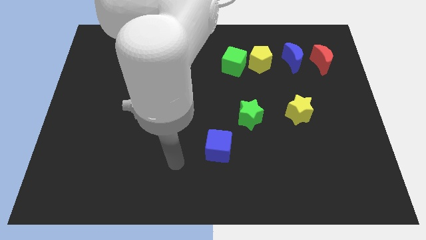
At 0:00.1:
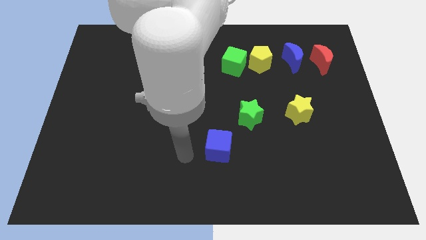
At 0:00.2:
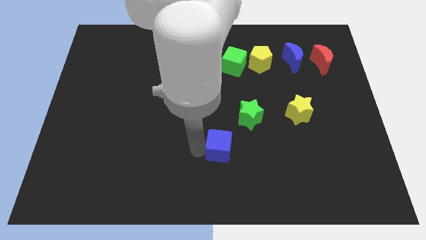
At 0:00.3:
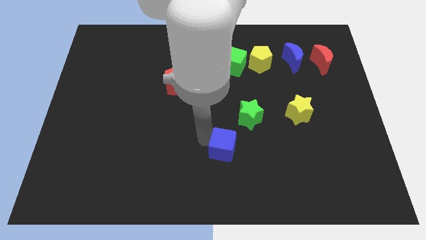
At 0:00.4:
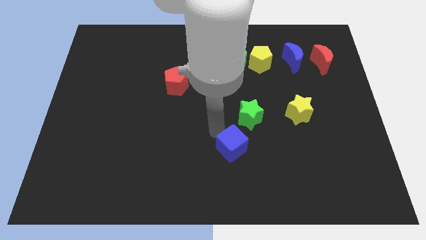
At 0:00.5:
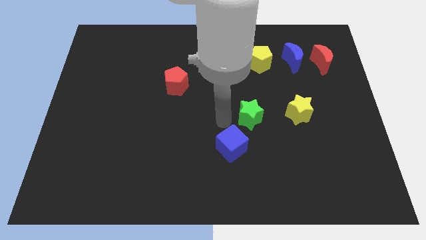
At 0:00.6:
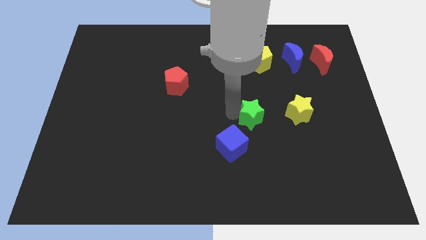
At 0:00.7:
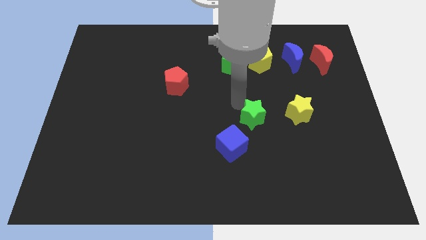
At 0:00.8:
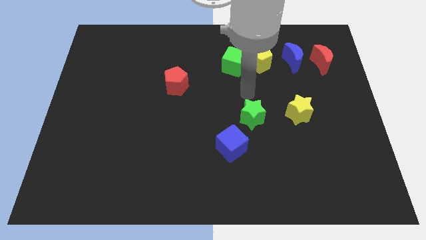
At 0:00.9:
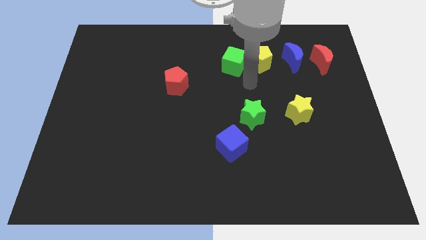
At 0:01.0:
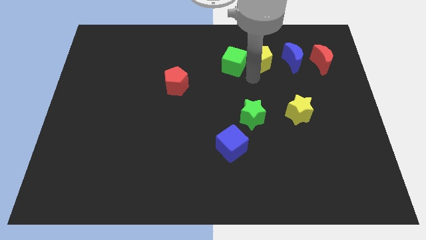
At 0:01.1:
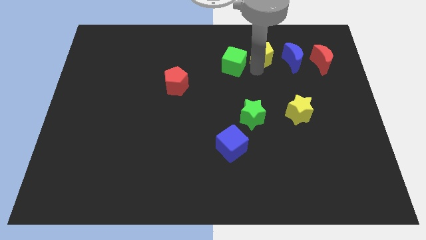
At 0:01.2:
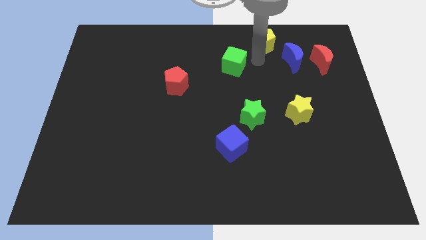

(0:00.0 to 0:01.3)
separate the green cube from the yellow pentagon

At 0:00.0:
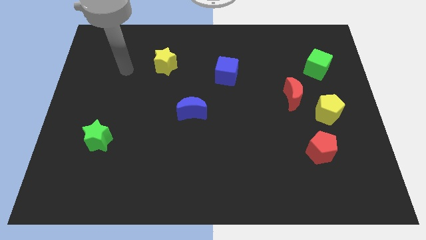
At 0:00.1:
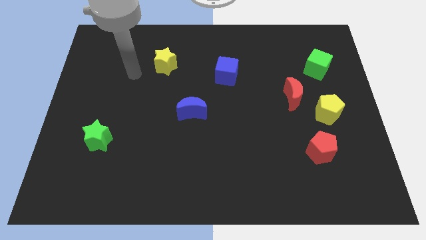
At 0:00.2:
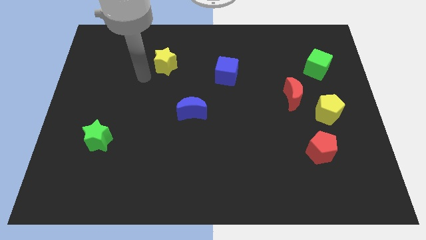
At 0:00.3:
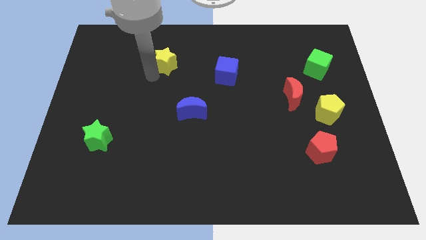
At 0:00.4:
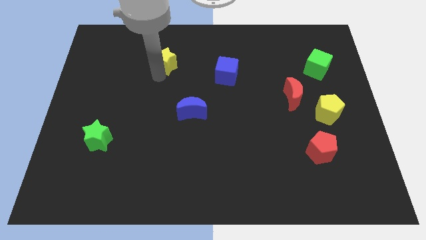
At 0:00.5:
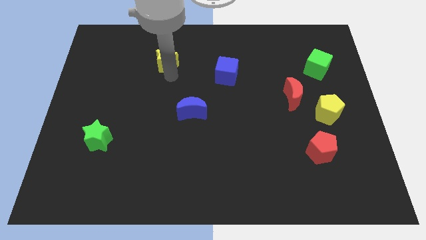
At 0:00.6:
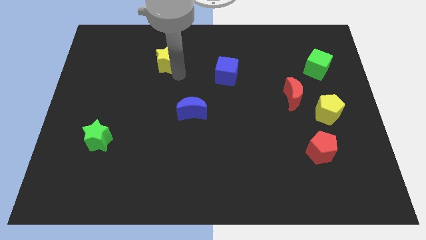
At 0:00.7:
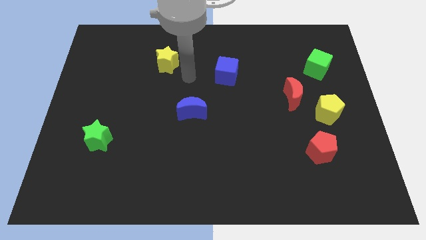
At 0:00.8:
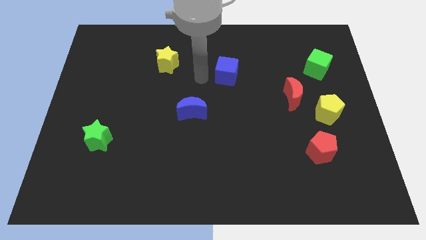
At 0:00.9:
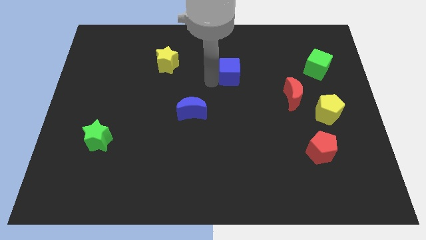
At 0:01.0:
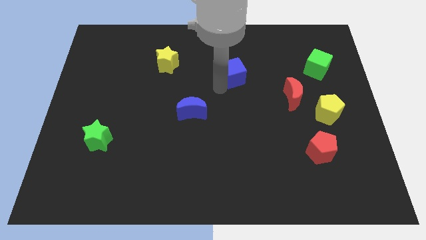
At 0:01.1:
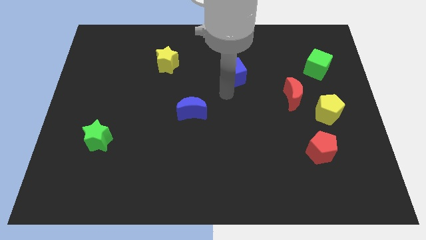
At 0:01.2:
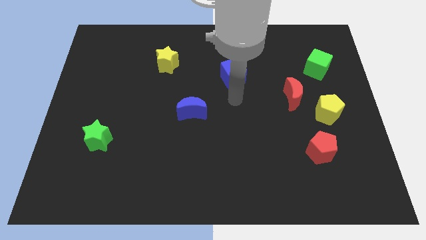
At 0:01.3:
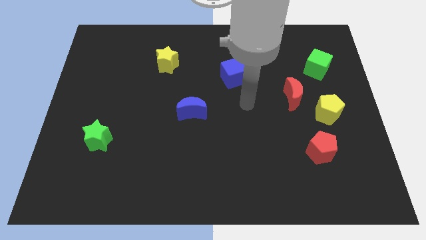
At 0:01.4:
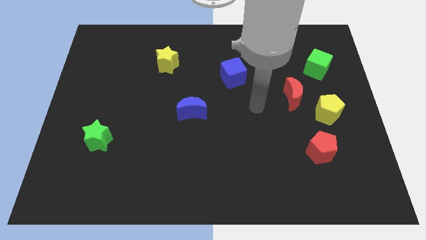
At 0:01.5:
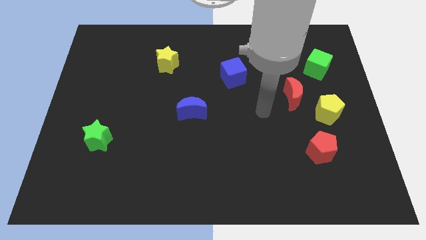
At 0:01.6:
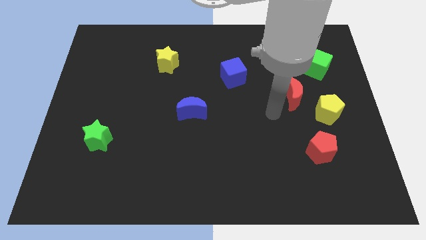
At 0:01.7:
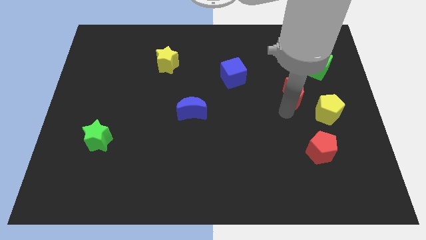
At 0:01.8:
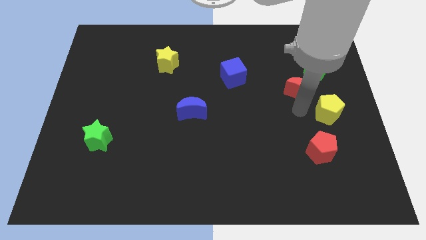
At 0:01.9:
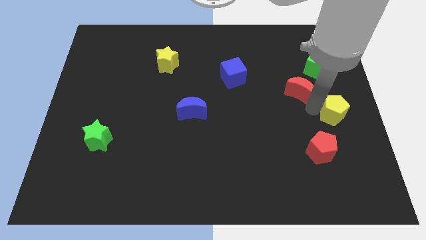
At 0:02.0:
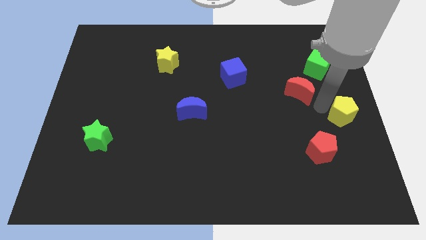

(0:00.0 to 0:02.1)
move the red moon away from the yellow pentagon

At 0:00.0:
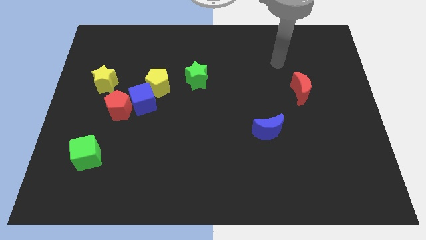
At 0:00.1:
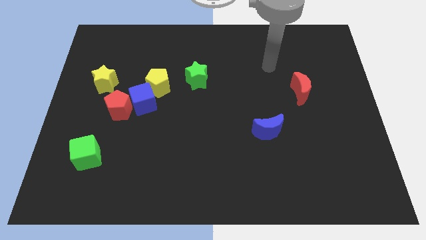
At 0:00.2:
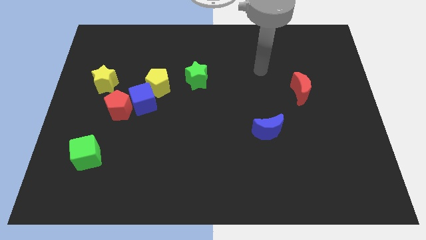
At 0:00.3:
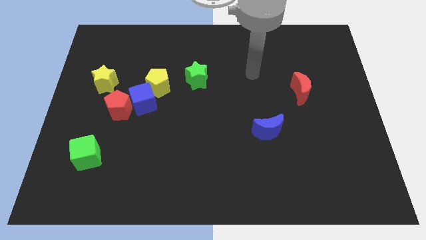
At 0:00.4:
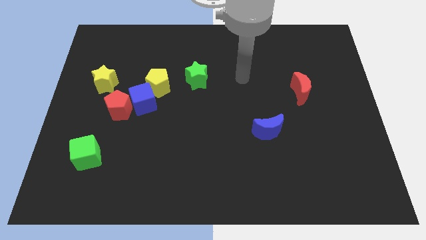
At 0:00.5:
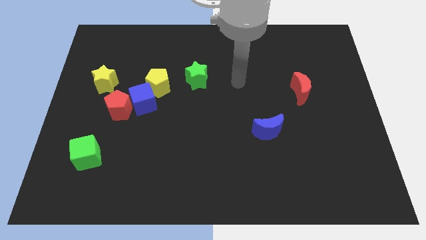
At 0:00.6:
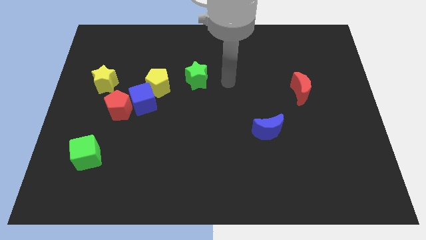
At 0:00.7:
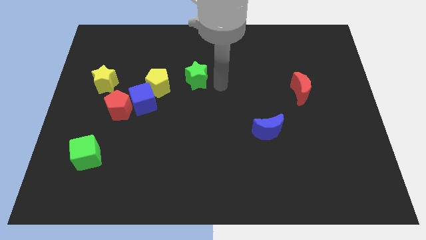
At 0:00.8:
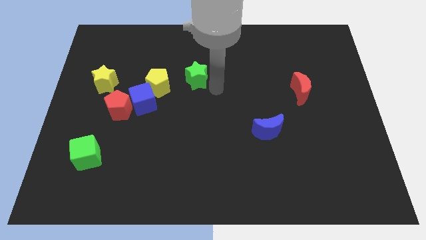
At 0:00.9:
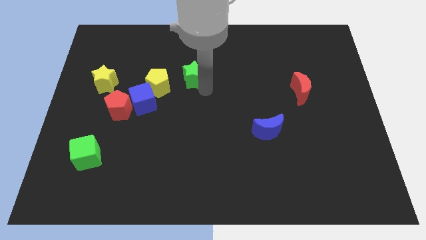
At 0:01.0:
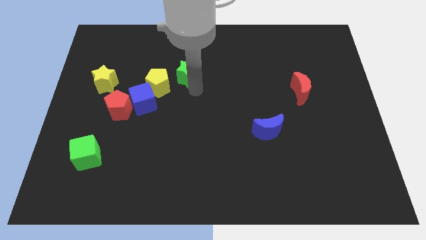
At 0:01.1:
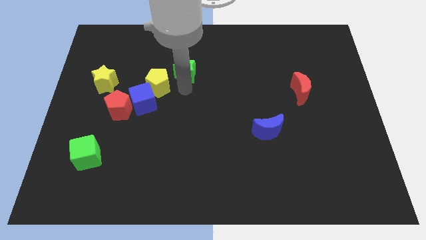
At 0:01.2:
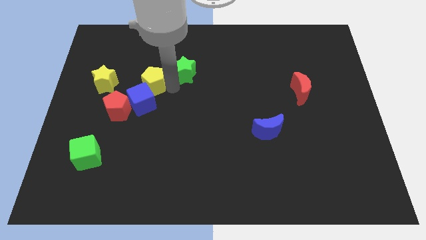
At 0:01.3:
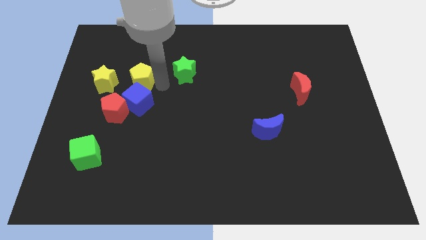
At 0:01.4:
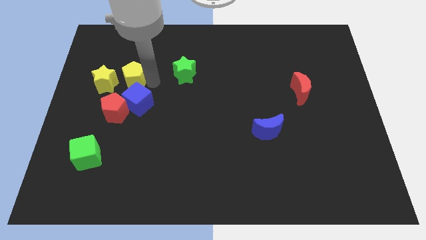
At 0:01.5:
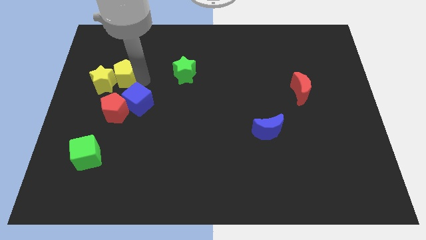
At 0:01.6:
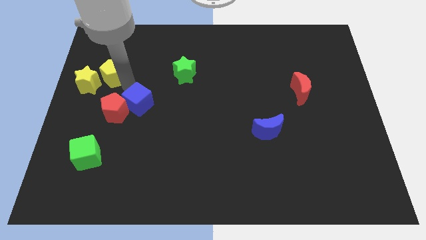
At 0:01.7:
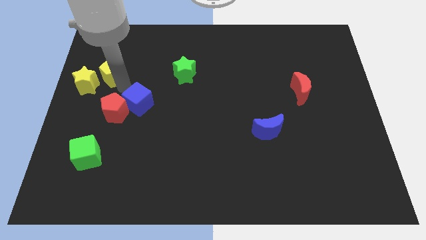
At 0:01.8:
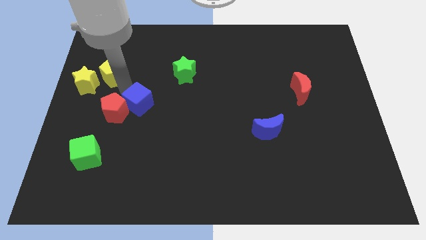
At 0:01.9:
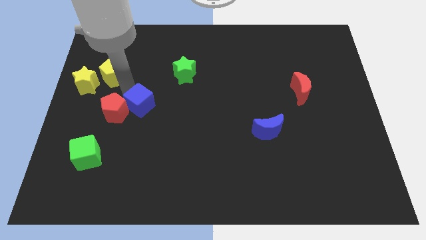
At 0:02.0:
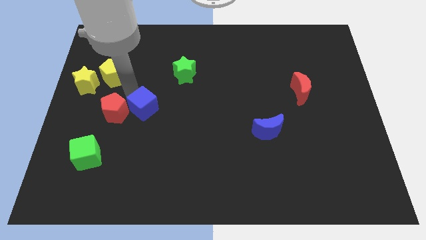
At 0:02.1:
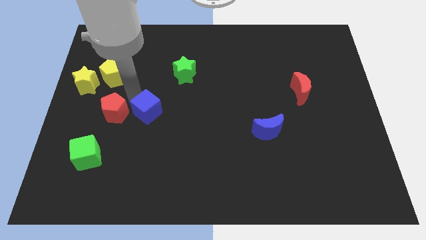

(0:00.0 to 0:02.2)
move the blue cube away from the red pentagon and yellow pentagon

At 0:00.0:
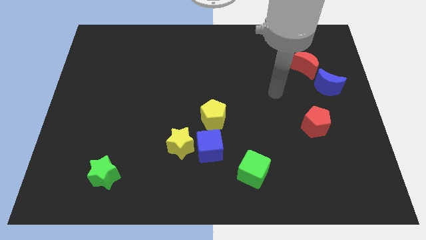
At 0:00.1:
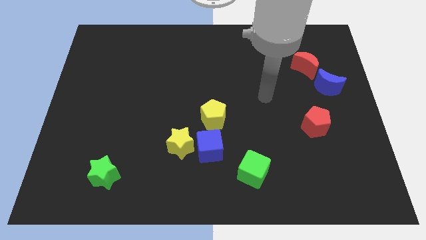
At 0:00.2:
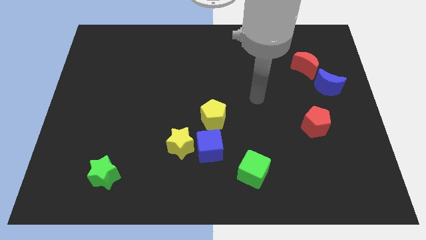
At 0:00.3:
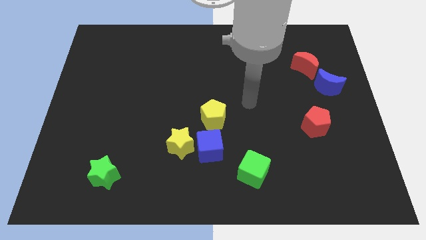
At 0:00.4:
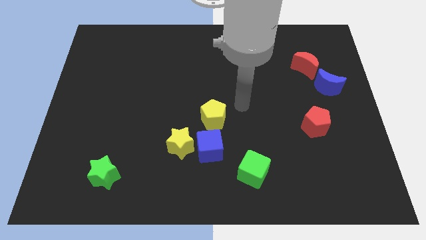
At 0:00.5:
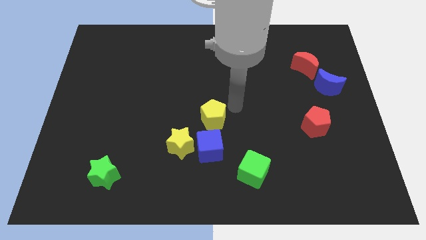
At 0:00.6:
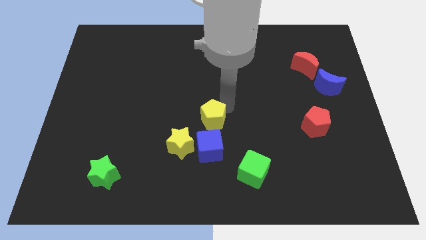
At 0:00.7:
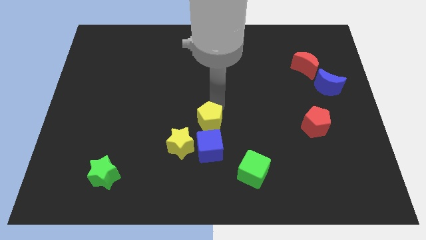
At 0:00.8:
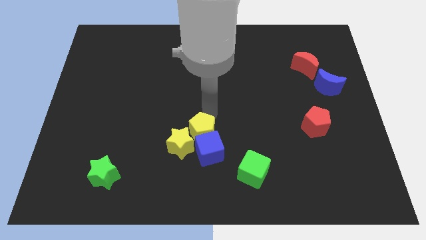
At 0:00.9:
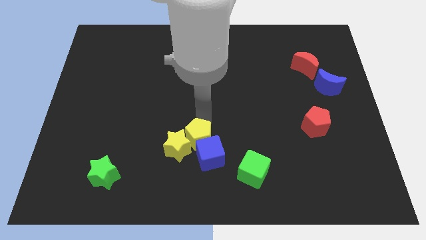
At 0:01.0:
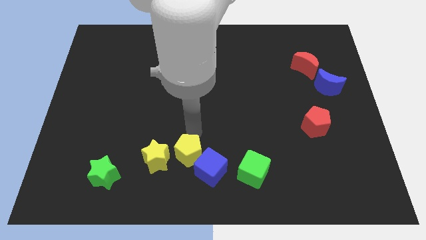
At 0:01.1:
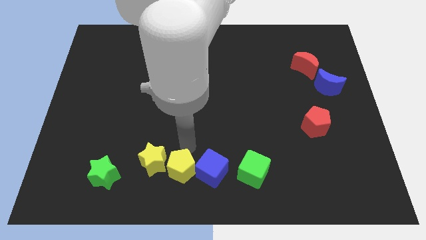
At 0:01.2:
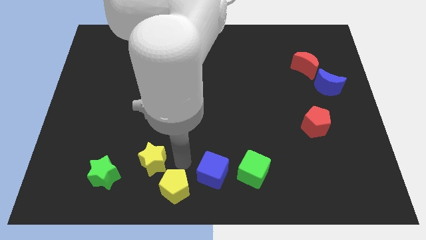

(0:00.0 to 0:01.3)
move the blue cube away from the yellow star and yellow pentagon

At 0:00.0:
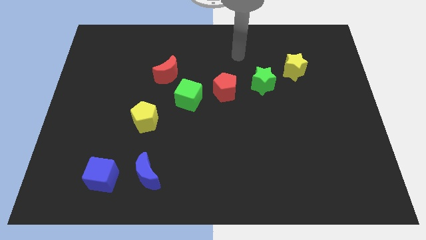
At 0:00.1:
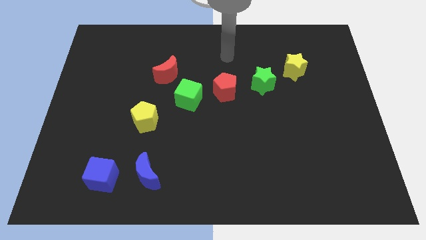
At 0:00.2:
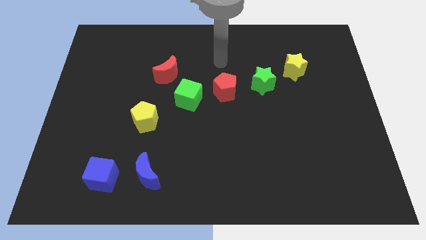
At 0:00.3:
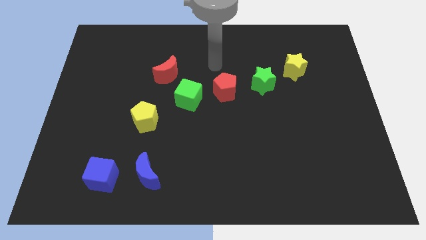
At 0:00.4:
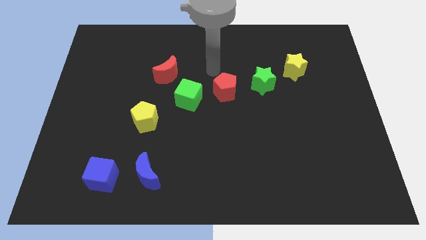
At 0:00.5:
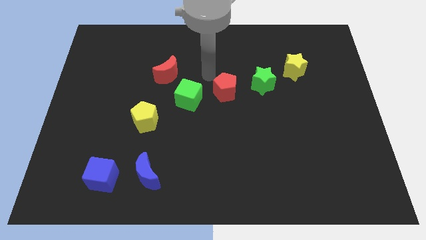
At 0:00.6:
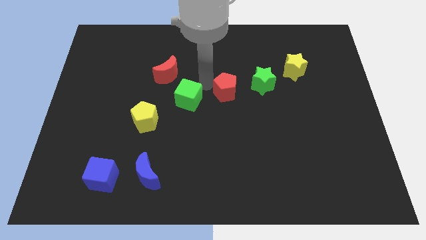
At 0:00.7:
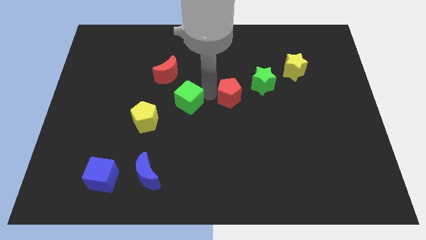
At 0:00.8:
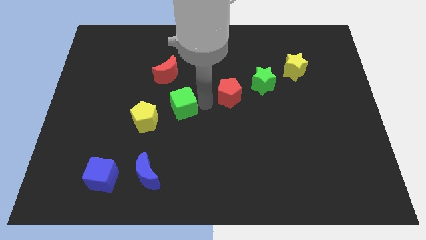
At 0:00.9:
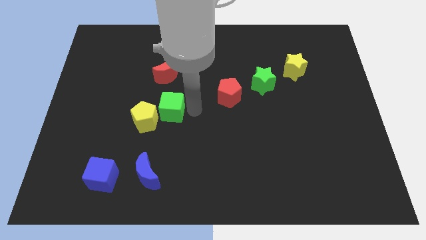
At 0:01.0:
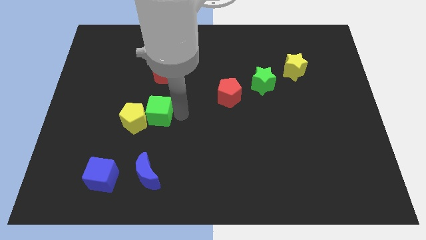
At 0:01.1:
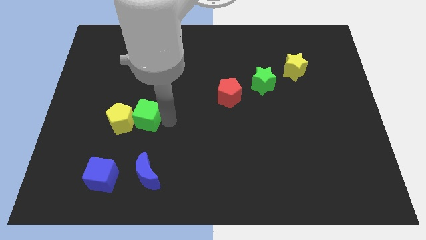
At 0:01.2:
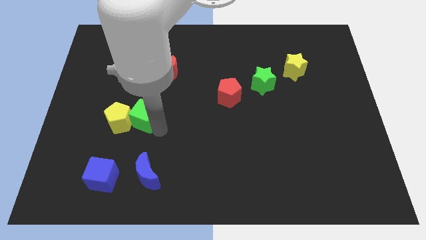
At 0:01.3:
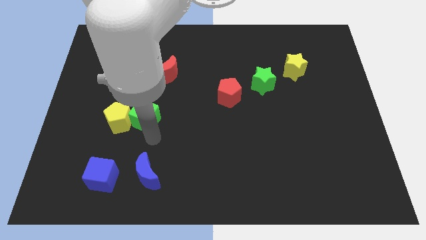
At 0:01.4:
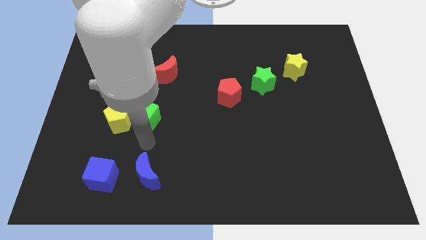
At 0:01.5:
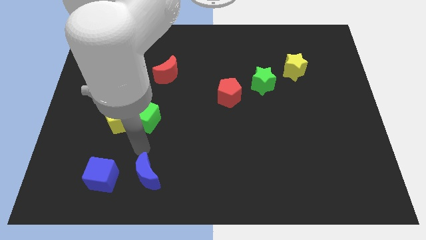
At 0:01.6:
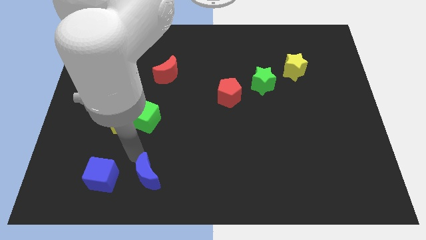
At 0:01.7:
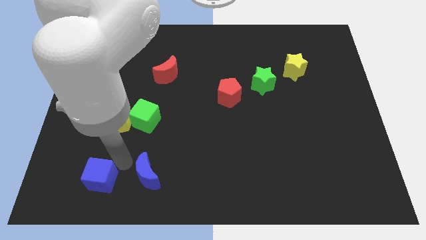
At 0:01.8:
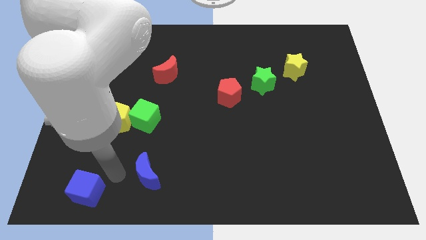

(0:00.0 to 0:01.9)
move the blue moon away from the blue cube

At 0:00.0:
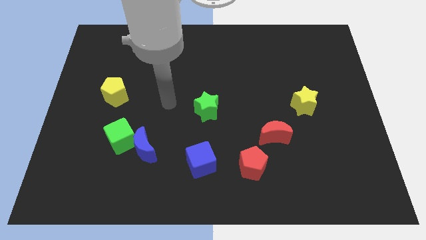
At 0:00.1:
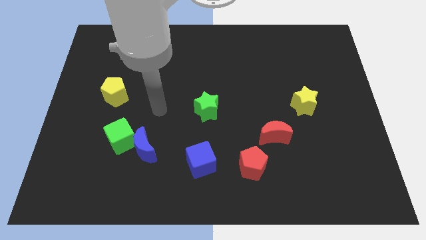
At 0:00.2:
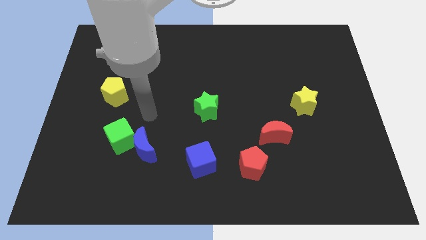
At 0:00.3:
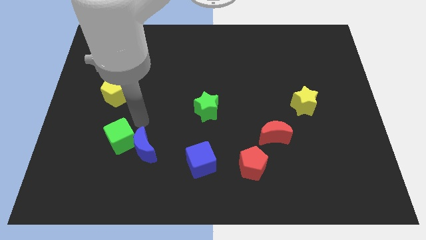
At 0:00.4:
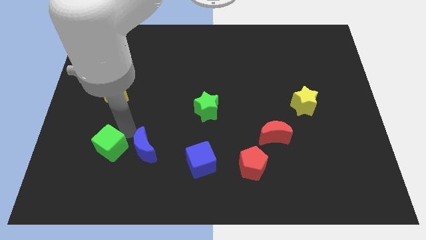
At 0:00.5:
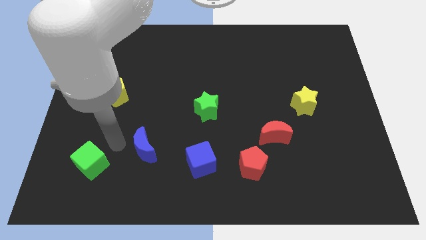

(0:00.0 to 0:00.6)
move the blue moon away from the green cube
